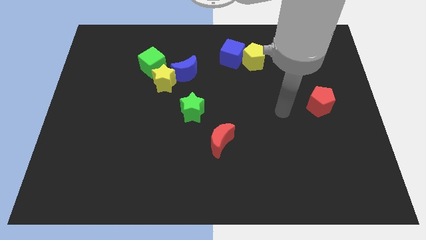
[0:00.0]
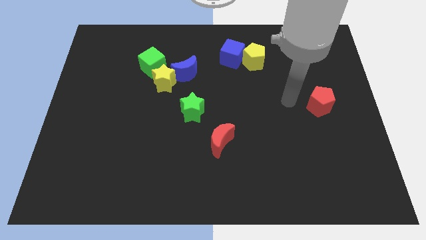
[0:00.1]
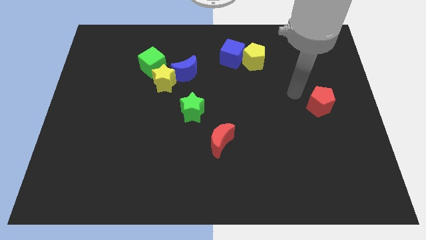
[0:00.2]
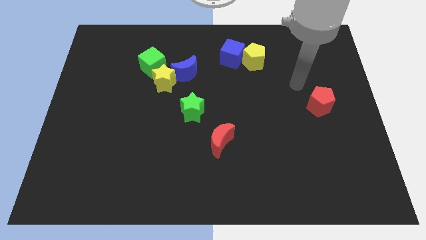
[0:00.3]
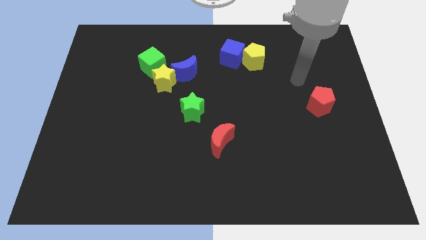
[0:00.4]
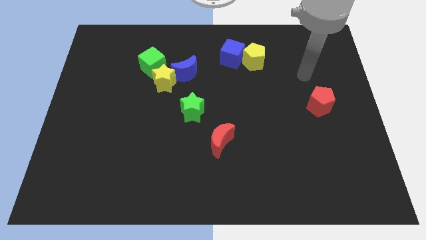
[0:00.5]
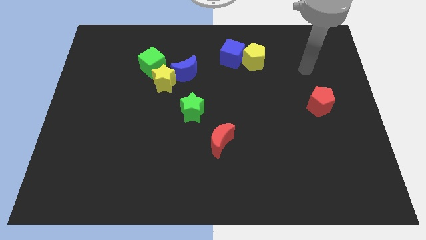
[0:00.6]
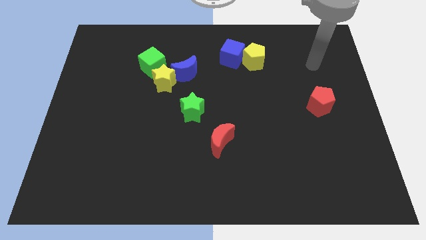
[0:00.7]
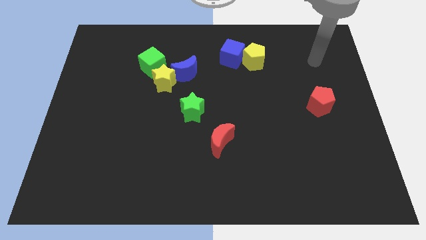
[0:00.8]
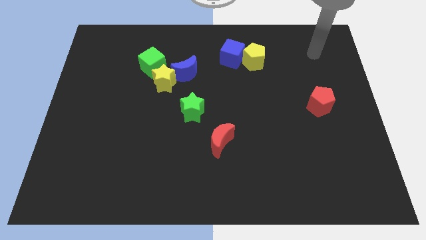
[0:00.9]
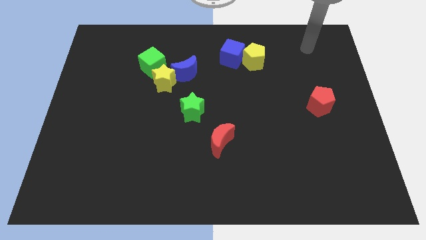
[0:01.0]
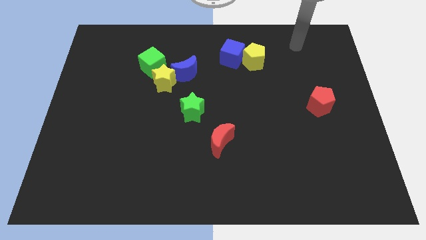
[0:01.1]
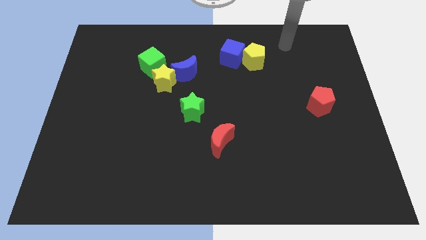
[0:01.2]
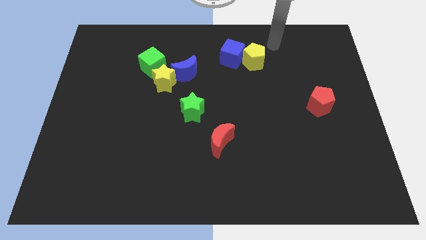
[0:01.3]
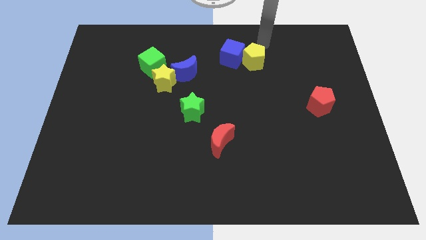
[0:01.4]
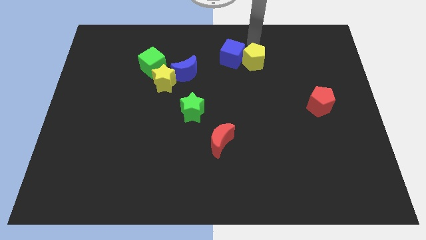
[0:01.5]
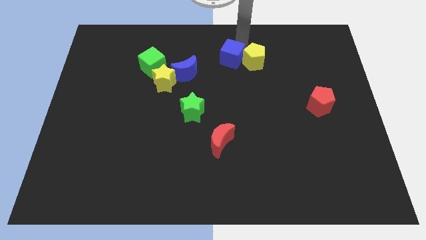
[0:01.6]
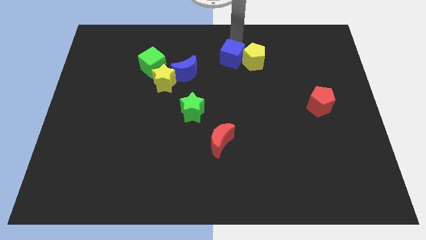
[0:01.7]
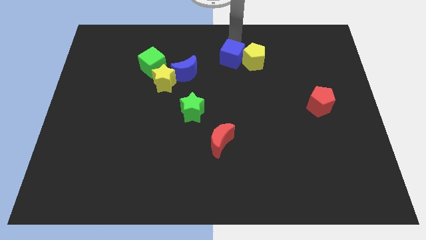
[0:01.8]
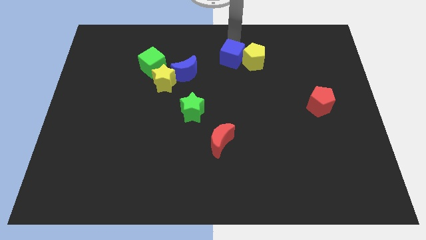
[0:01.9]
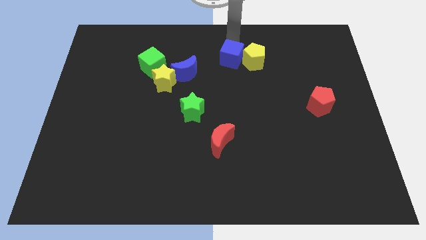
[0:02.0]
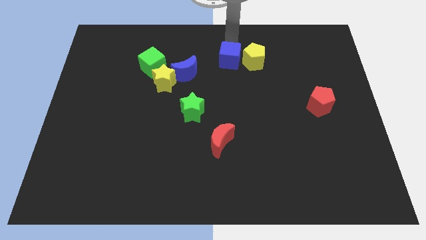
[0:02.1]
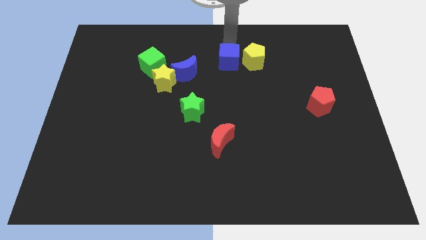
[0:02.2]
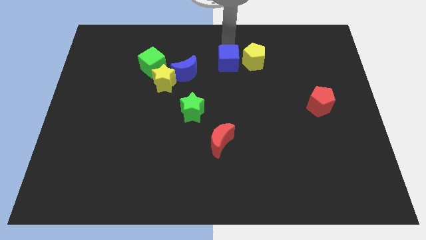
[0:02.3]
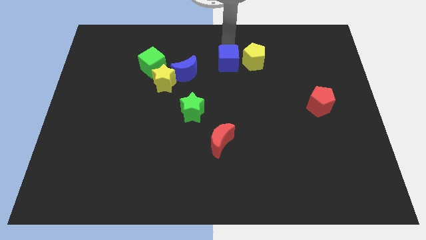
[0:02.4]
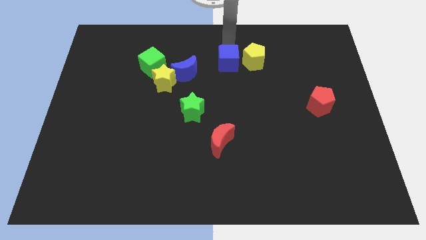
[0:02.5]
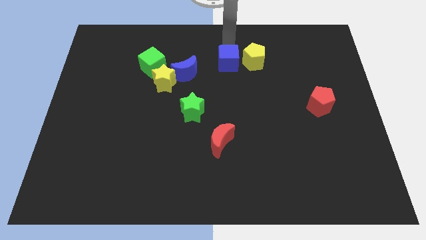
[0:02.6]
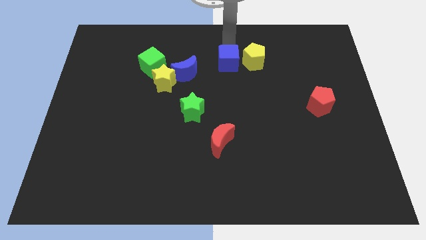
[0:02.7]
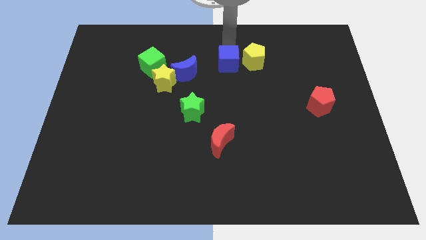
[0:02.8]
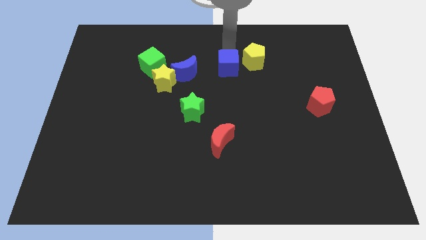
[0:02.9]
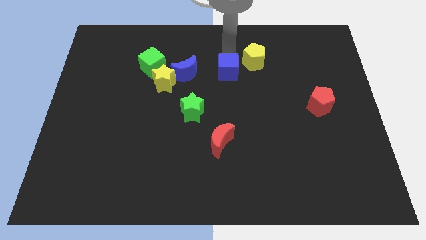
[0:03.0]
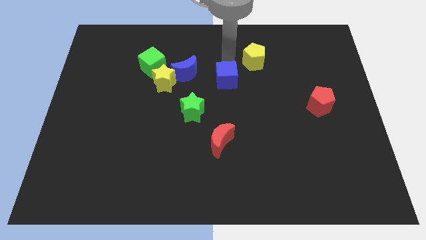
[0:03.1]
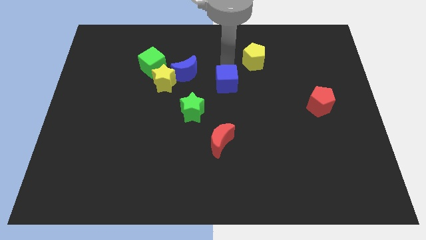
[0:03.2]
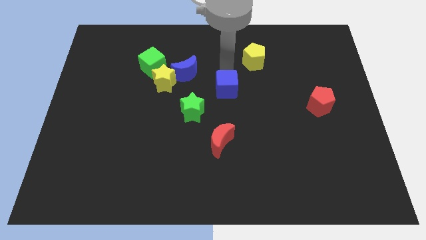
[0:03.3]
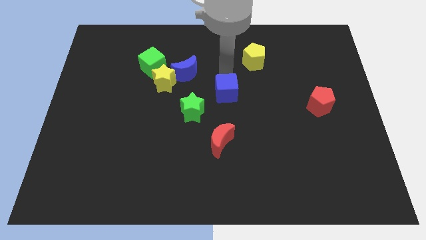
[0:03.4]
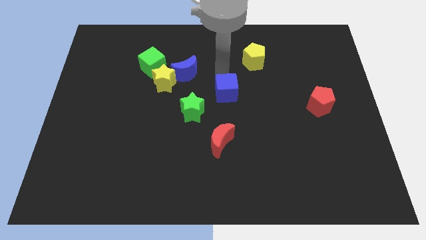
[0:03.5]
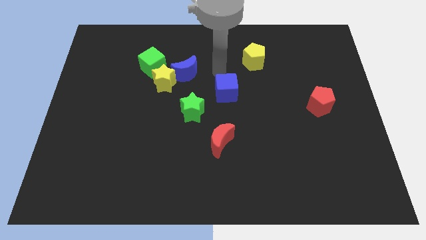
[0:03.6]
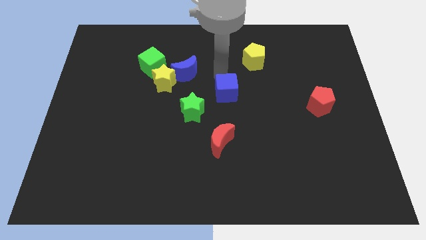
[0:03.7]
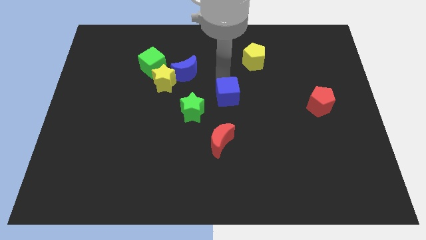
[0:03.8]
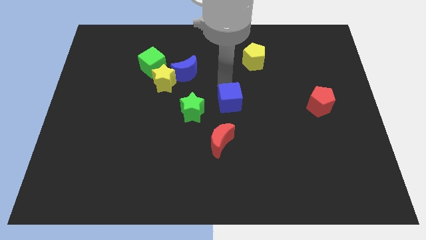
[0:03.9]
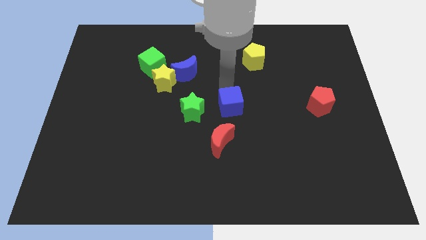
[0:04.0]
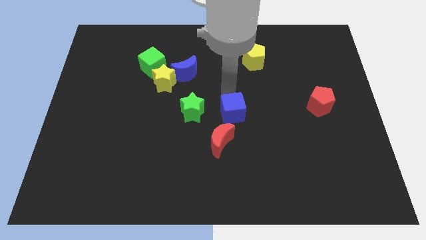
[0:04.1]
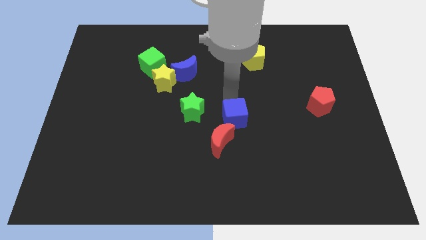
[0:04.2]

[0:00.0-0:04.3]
move the blue cube down

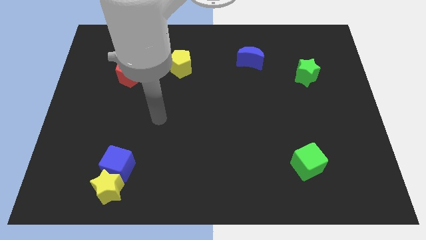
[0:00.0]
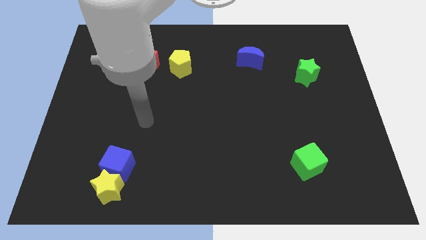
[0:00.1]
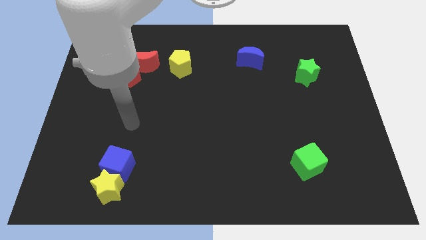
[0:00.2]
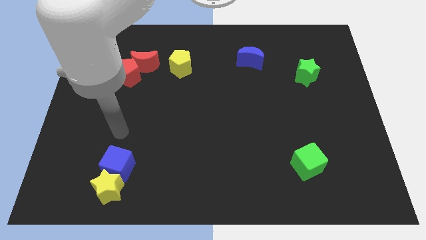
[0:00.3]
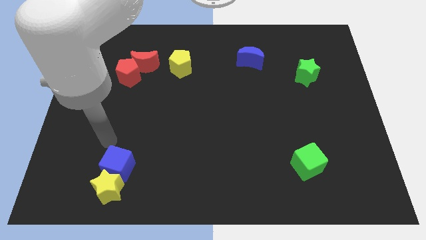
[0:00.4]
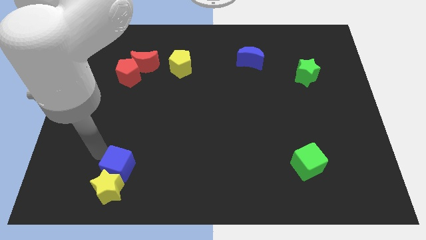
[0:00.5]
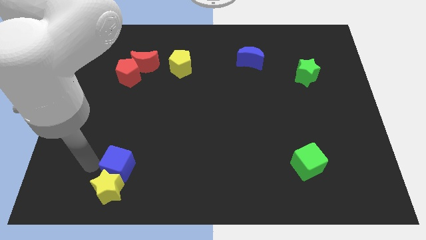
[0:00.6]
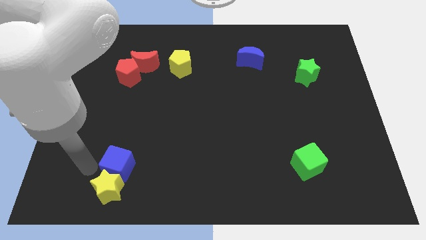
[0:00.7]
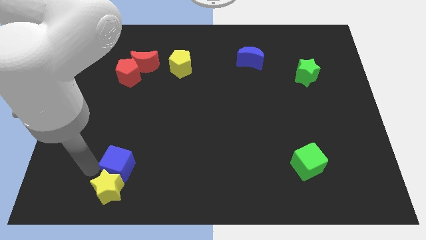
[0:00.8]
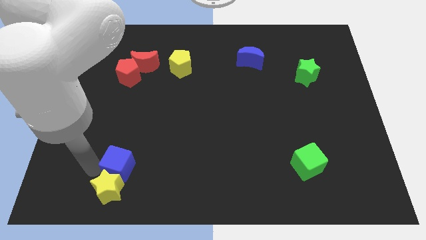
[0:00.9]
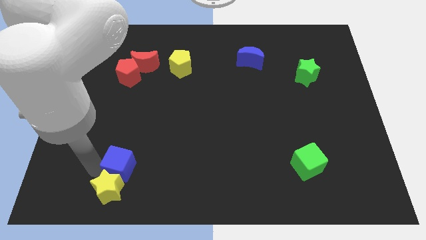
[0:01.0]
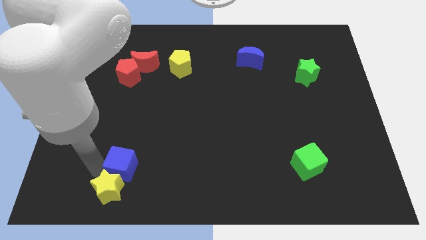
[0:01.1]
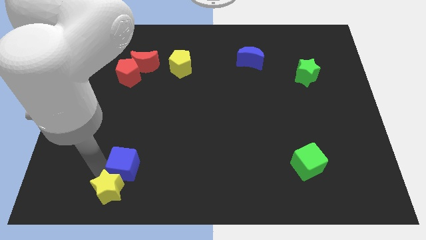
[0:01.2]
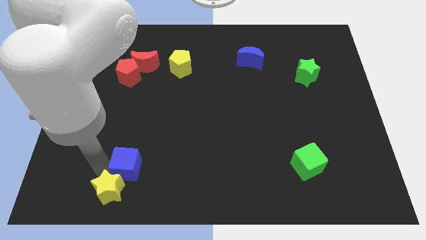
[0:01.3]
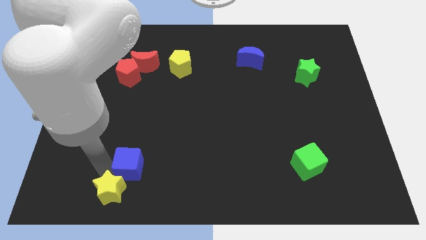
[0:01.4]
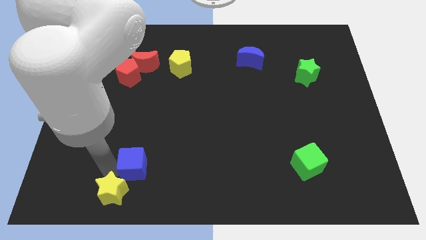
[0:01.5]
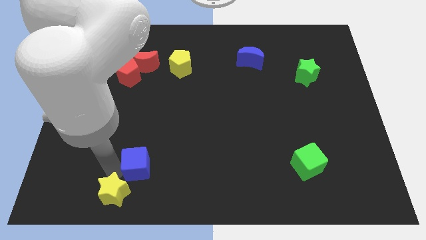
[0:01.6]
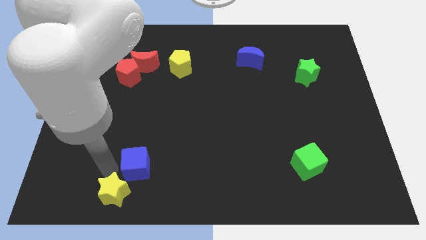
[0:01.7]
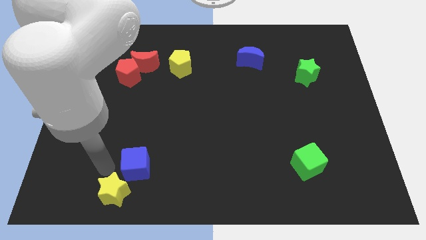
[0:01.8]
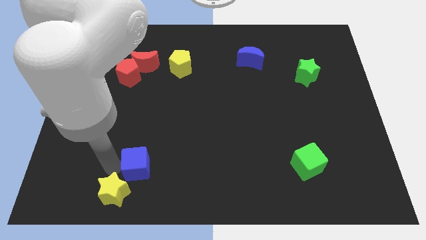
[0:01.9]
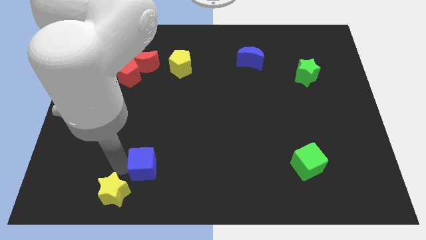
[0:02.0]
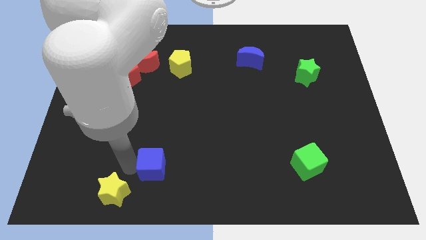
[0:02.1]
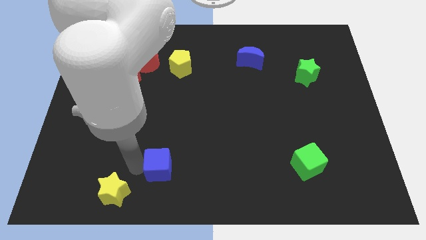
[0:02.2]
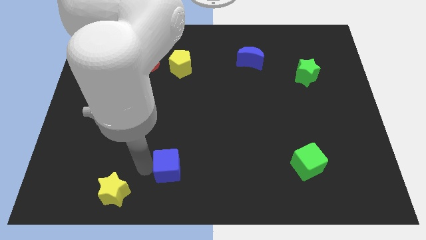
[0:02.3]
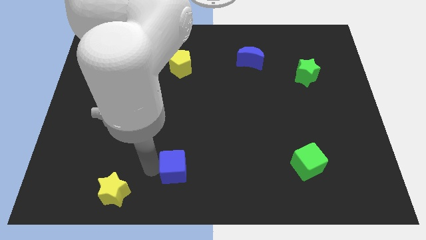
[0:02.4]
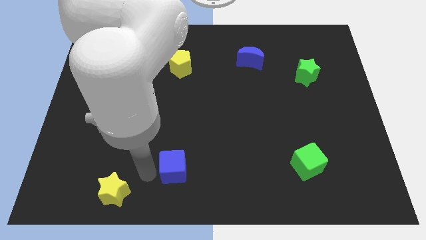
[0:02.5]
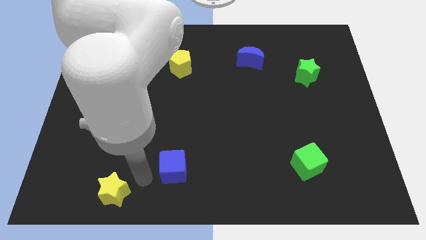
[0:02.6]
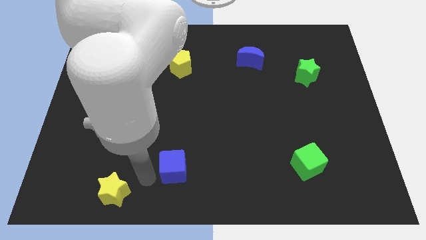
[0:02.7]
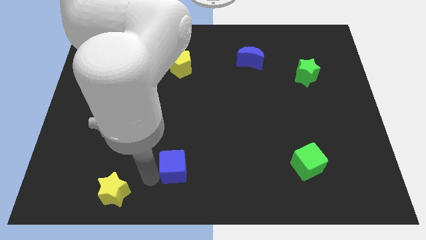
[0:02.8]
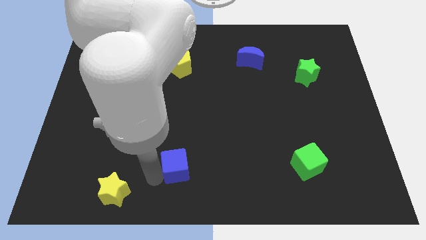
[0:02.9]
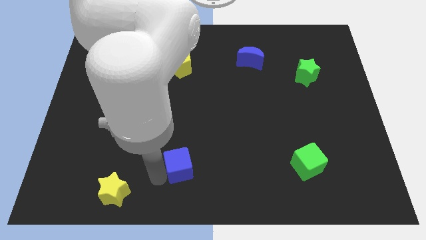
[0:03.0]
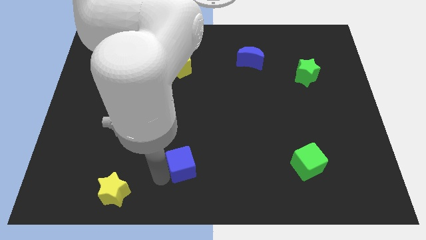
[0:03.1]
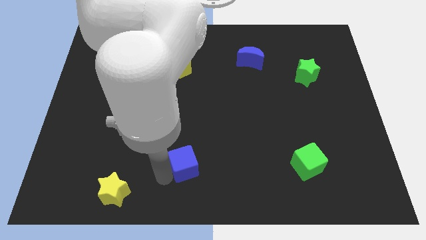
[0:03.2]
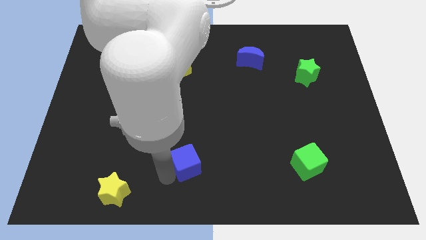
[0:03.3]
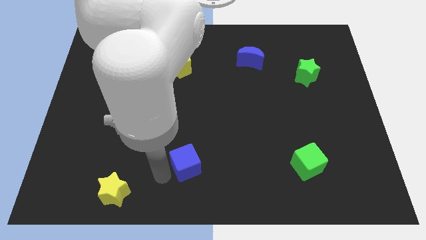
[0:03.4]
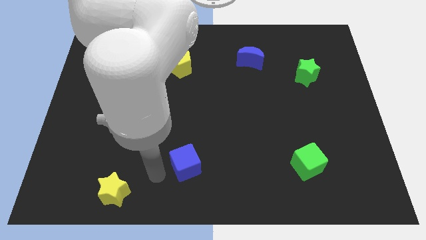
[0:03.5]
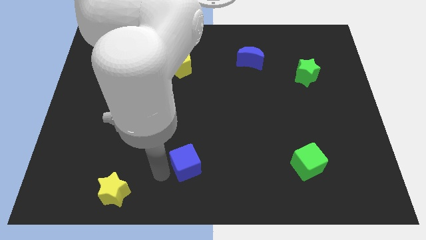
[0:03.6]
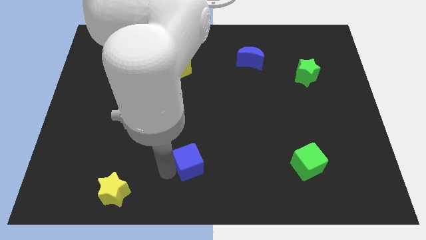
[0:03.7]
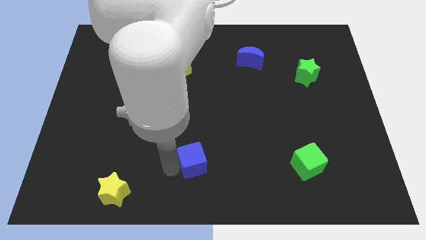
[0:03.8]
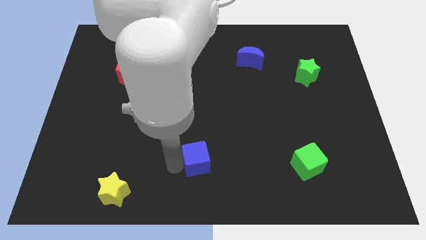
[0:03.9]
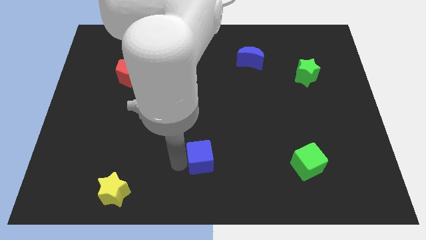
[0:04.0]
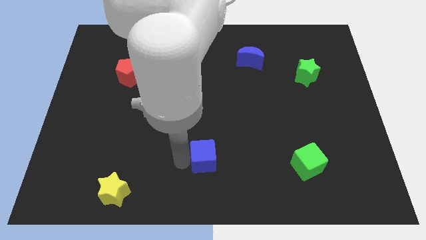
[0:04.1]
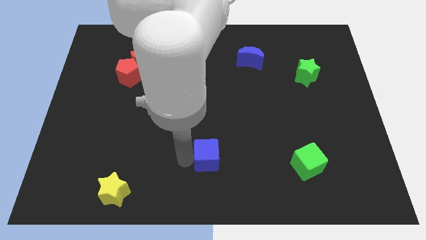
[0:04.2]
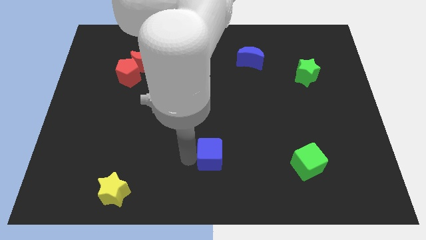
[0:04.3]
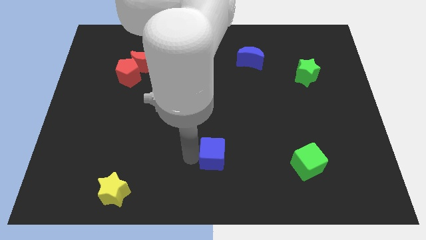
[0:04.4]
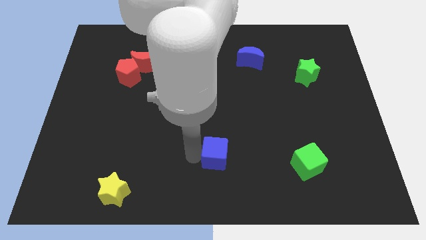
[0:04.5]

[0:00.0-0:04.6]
move the blue cube to the right
